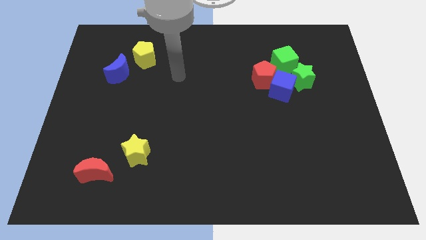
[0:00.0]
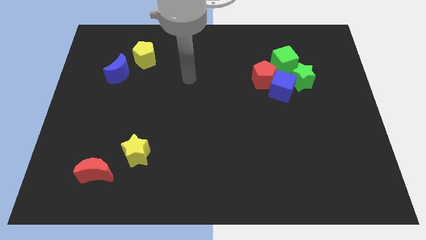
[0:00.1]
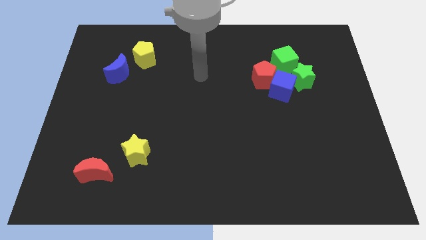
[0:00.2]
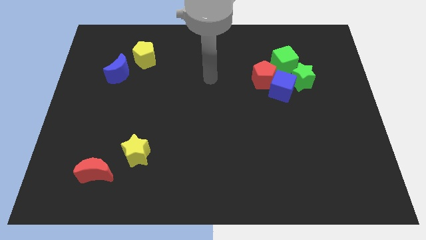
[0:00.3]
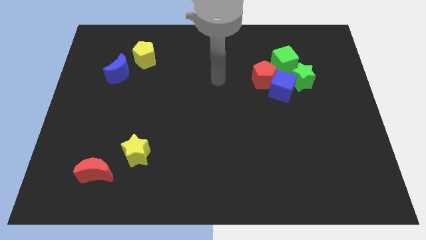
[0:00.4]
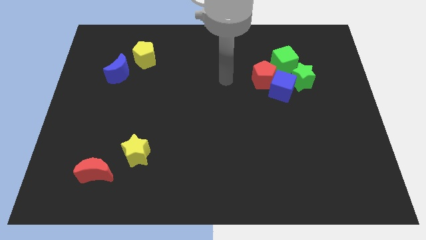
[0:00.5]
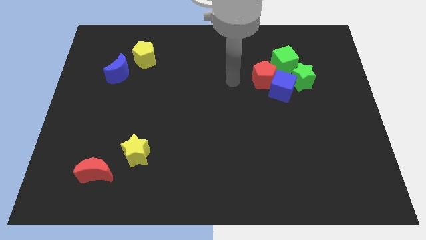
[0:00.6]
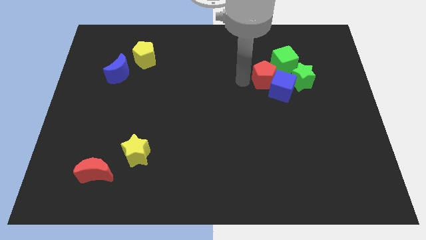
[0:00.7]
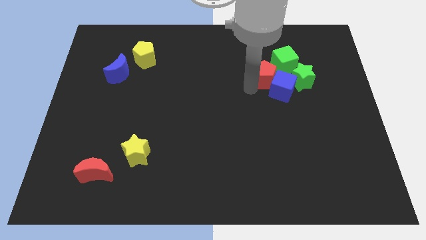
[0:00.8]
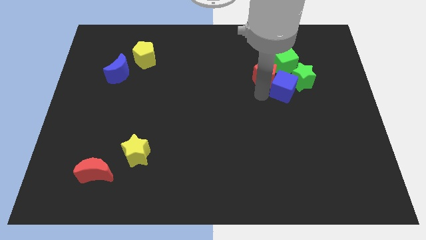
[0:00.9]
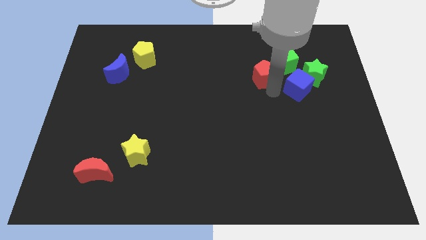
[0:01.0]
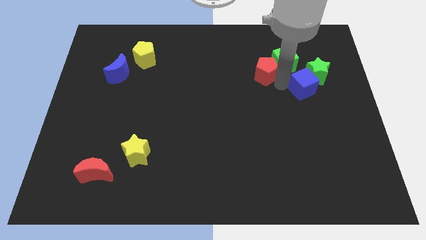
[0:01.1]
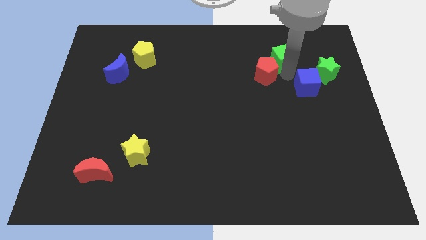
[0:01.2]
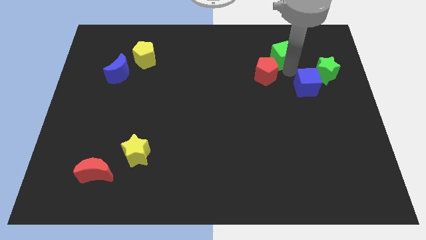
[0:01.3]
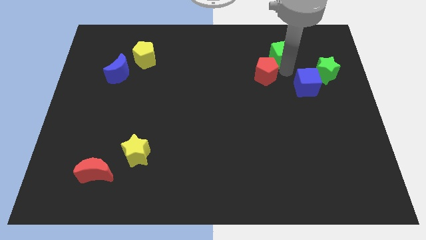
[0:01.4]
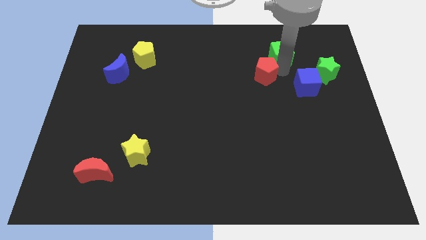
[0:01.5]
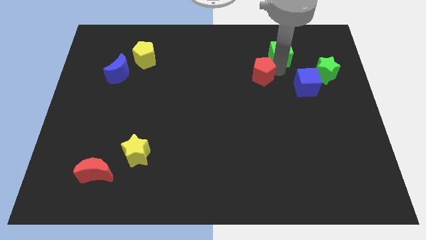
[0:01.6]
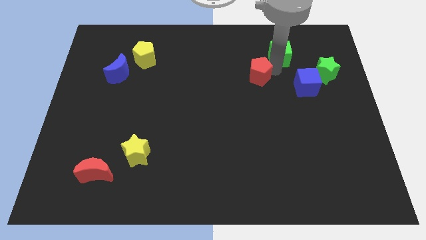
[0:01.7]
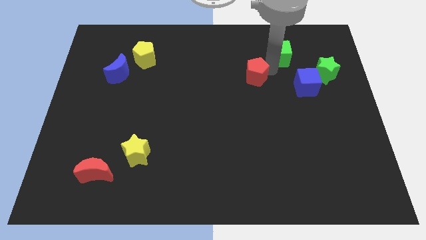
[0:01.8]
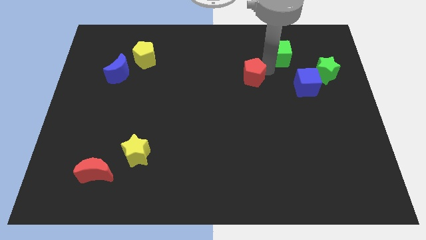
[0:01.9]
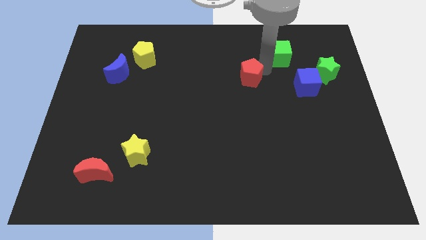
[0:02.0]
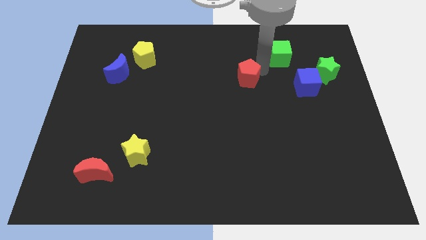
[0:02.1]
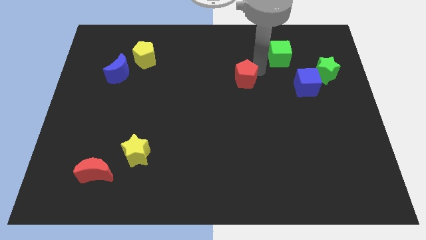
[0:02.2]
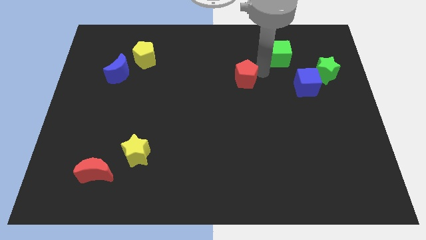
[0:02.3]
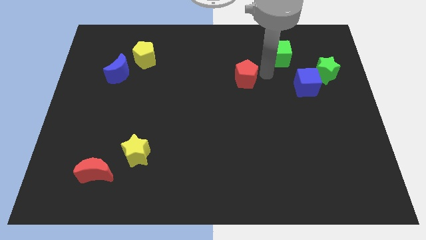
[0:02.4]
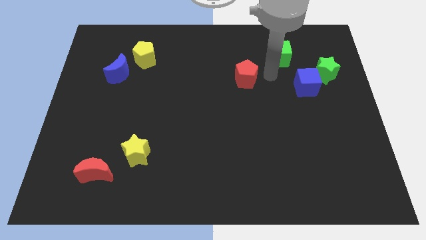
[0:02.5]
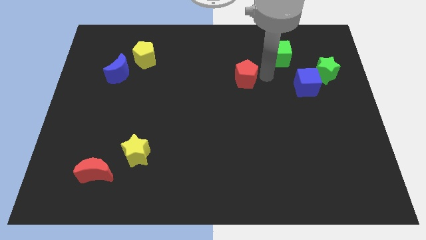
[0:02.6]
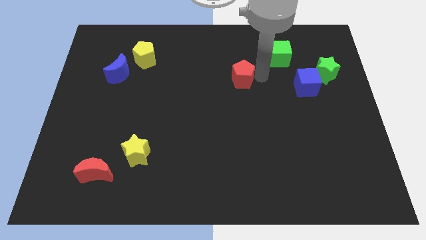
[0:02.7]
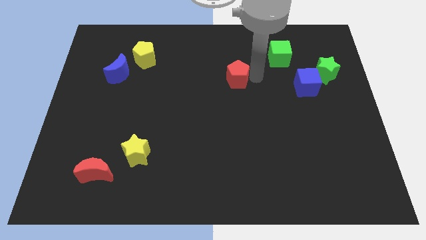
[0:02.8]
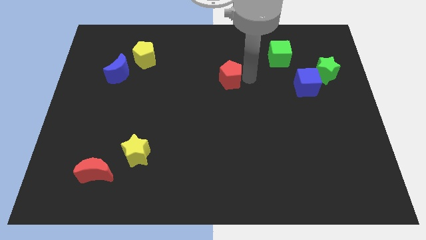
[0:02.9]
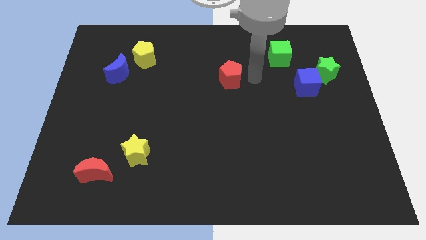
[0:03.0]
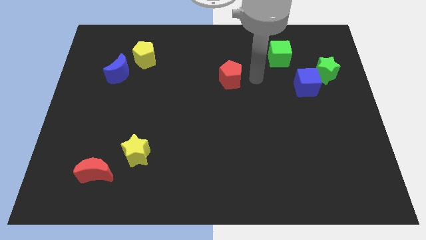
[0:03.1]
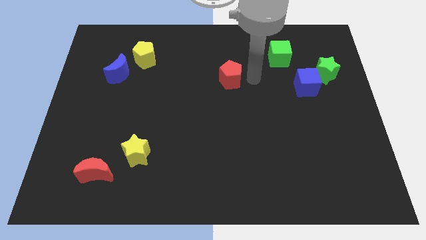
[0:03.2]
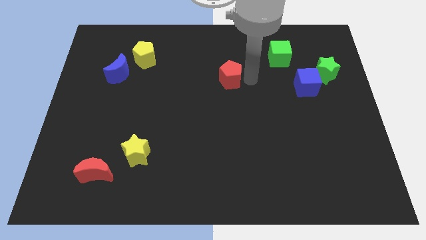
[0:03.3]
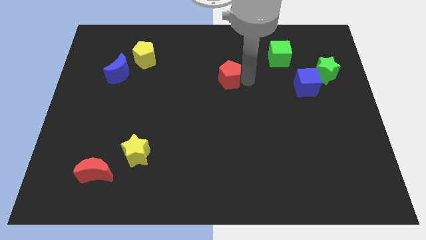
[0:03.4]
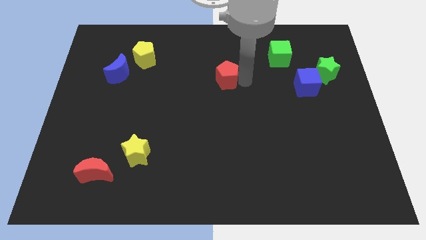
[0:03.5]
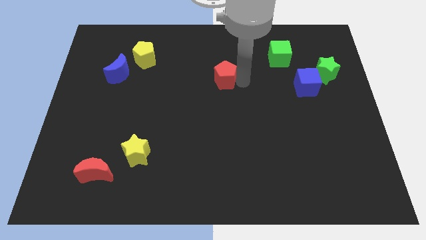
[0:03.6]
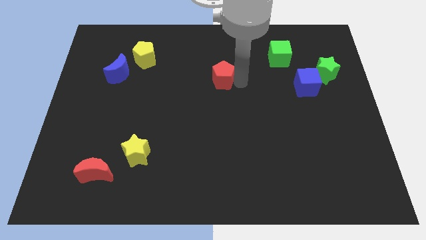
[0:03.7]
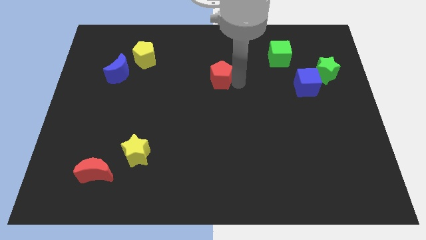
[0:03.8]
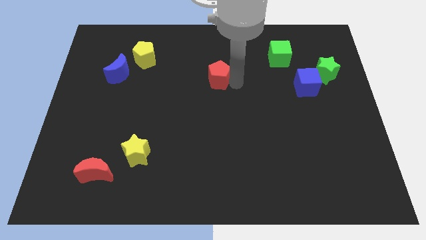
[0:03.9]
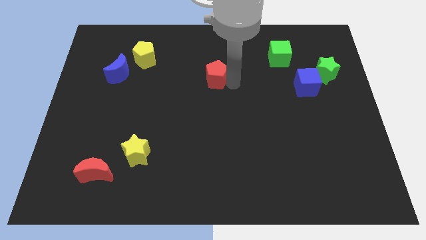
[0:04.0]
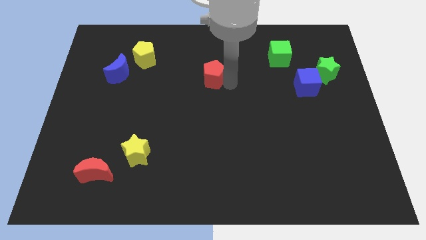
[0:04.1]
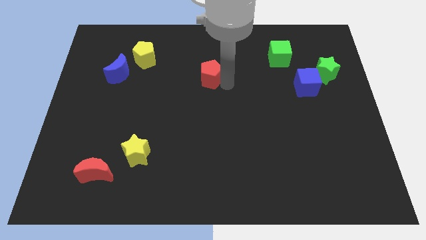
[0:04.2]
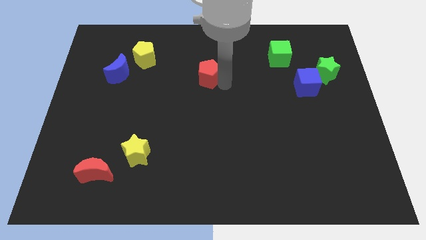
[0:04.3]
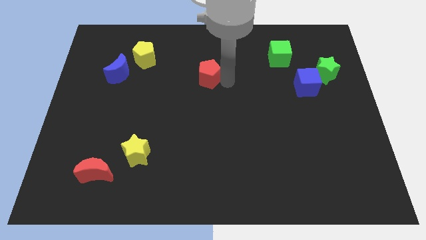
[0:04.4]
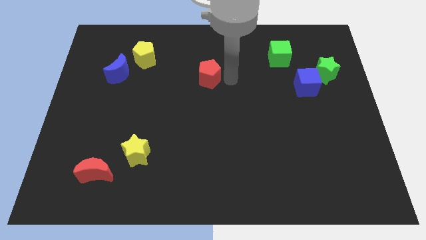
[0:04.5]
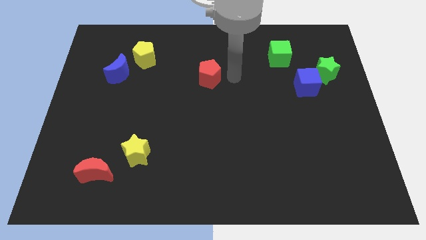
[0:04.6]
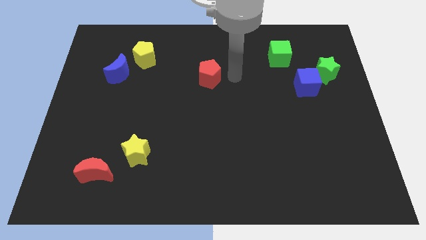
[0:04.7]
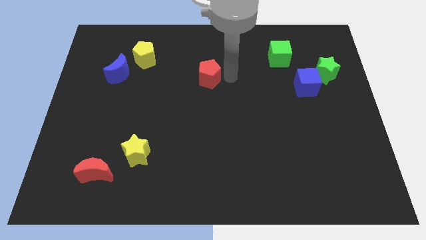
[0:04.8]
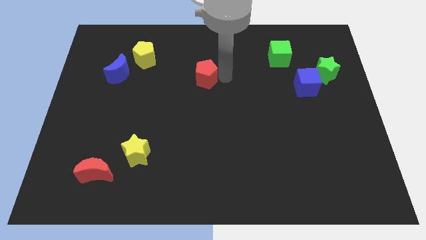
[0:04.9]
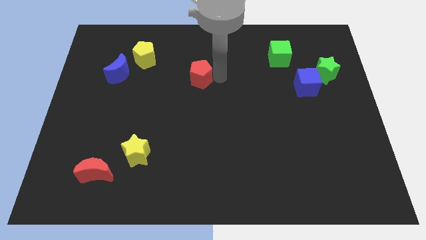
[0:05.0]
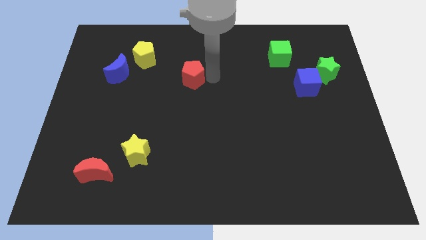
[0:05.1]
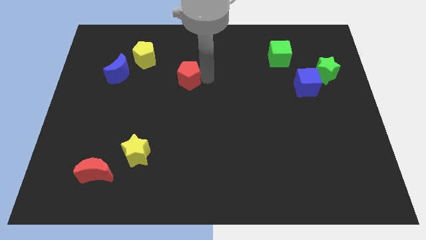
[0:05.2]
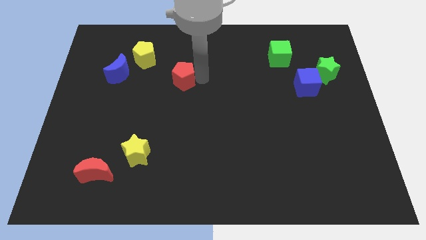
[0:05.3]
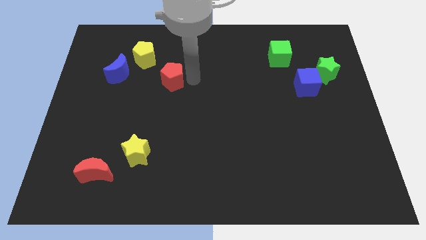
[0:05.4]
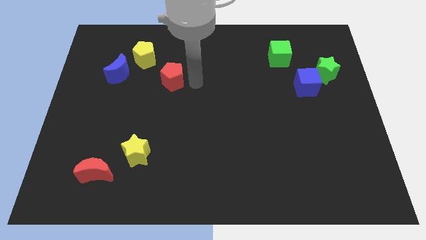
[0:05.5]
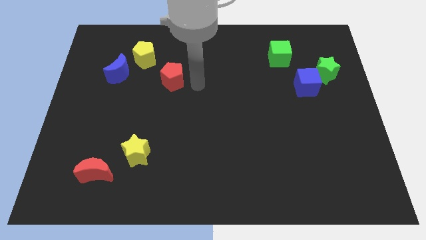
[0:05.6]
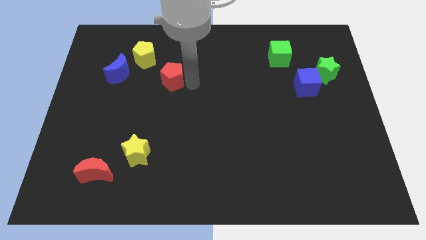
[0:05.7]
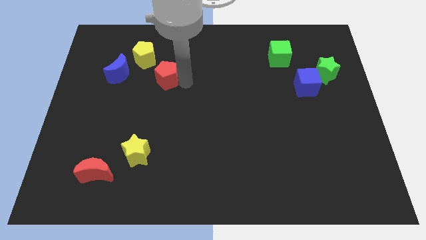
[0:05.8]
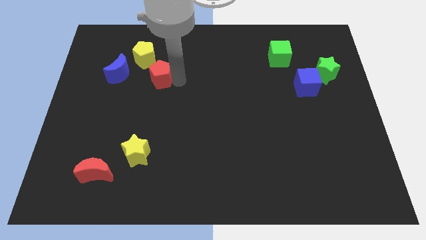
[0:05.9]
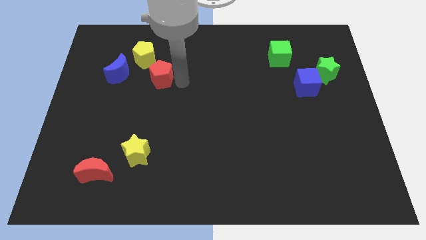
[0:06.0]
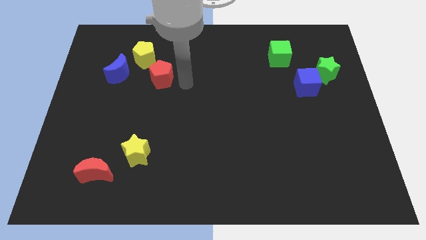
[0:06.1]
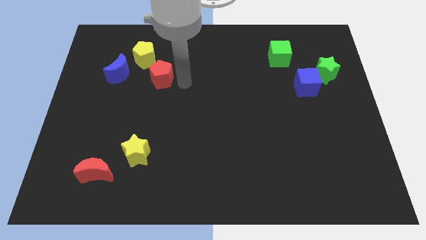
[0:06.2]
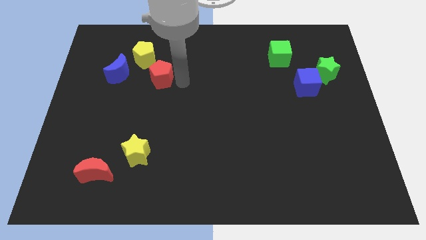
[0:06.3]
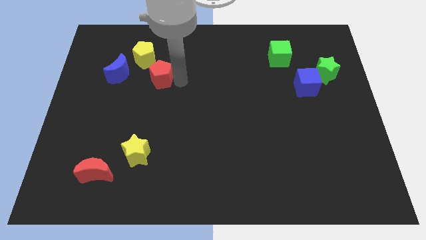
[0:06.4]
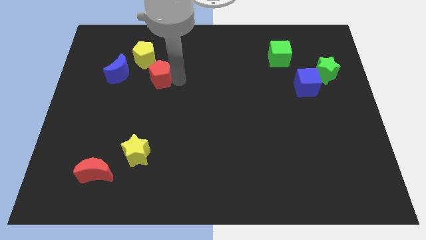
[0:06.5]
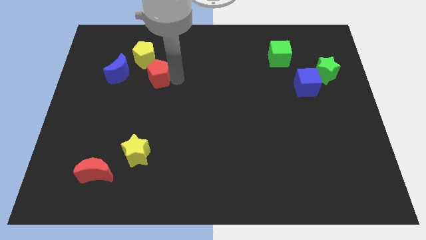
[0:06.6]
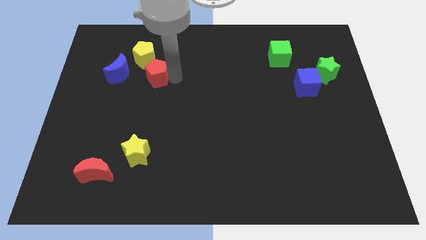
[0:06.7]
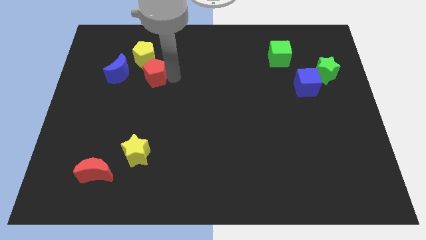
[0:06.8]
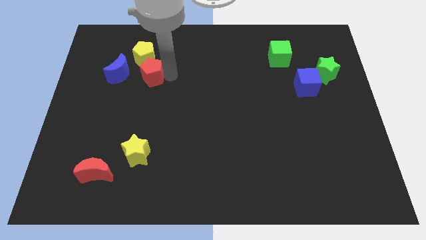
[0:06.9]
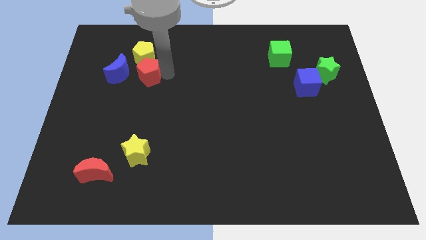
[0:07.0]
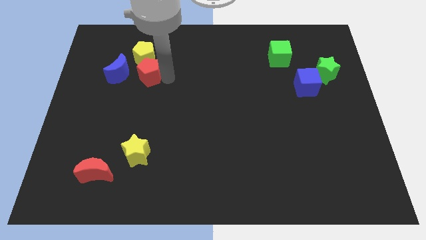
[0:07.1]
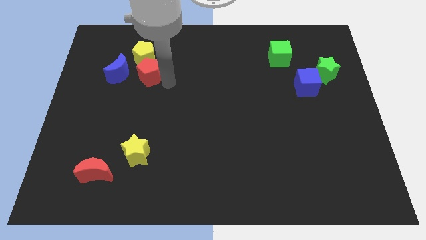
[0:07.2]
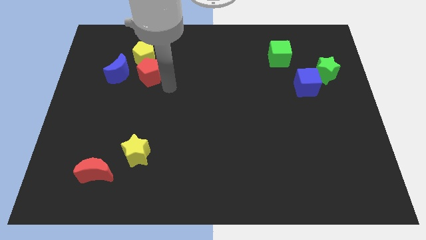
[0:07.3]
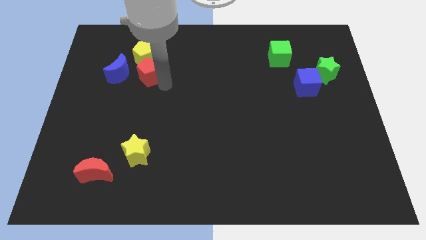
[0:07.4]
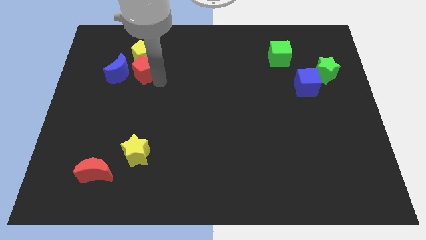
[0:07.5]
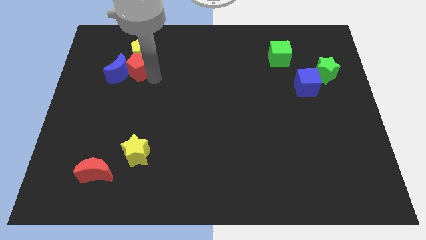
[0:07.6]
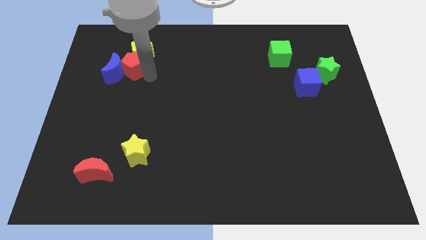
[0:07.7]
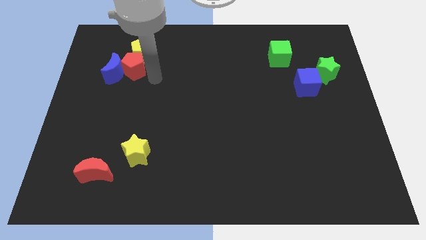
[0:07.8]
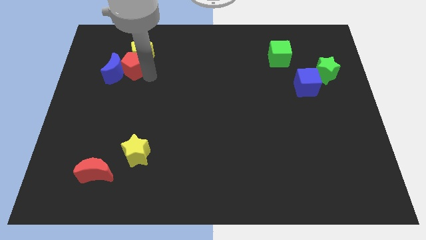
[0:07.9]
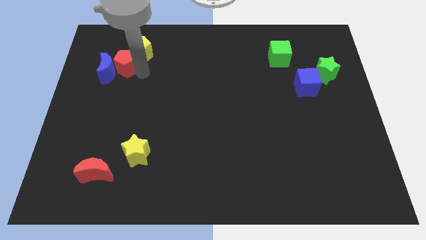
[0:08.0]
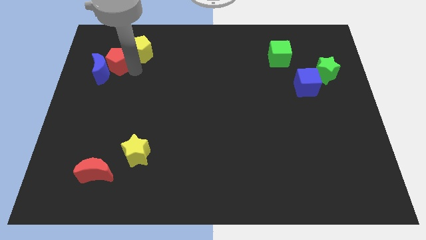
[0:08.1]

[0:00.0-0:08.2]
slide the red pentagon left of the yellow pentagon
